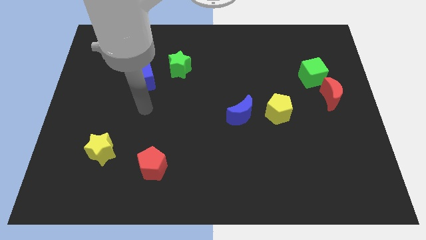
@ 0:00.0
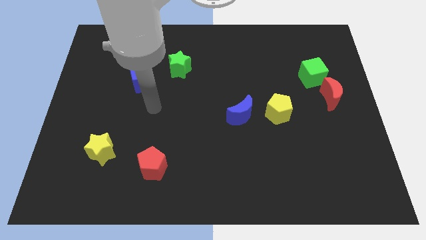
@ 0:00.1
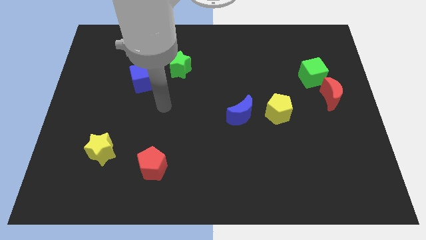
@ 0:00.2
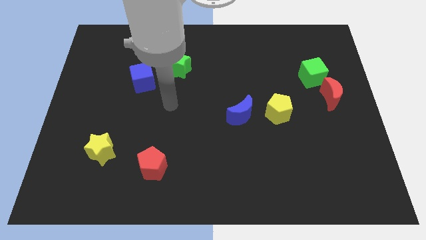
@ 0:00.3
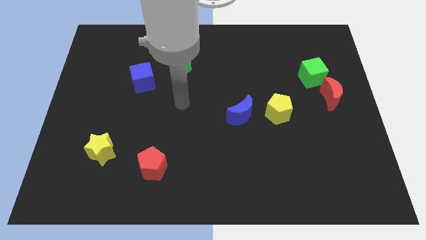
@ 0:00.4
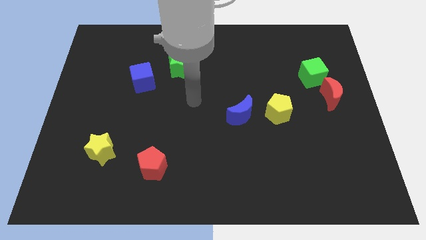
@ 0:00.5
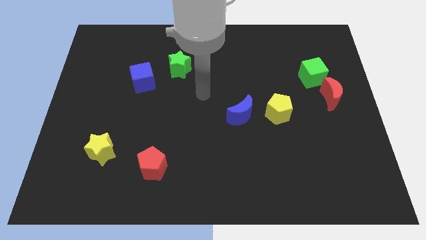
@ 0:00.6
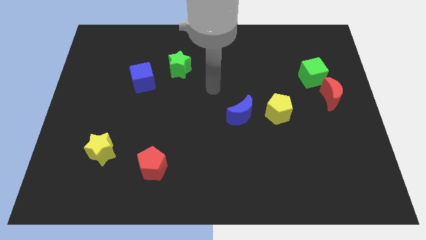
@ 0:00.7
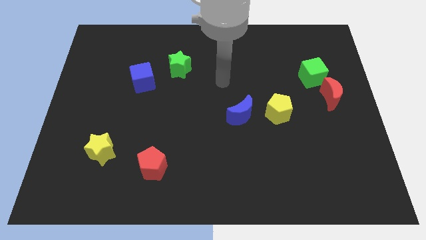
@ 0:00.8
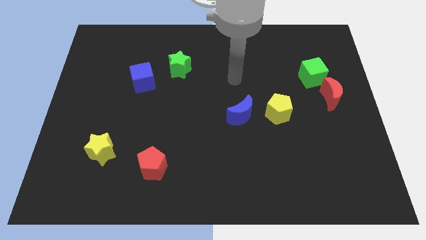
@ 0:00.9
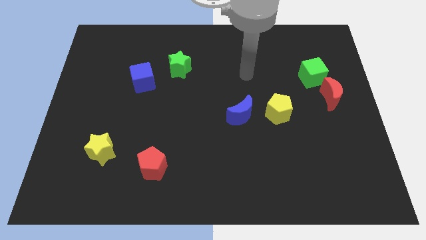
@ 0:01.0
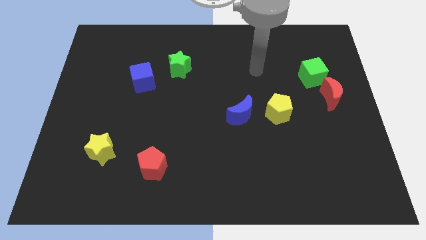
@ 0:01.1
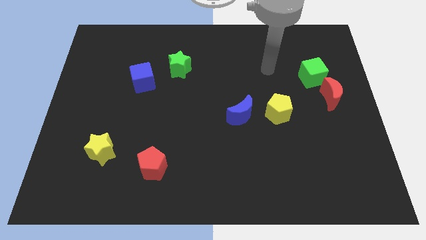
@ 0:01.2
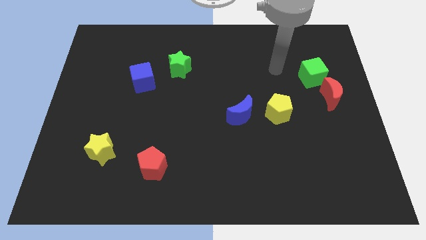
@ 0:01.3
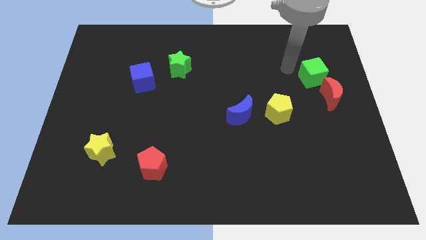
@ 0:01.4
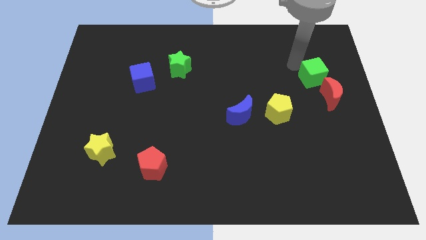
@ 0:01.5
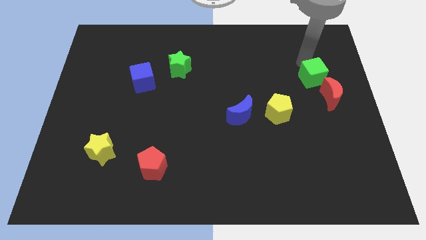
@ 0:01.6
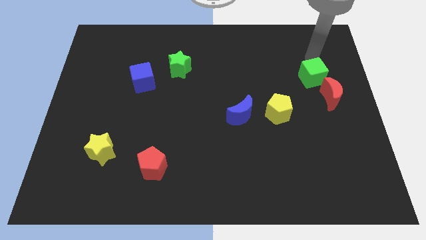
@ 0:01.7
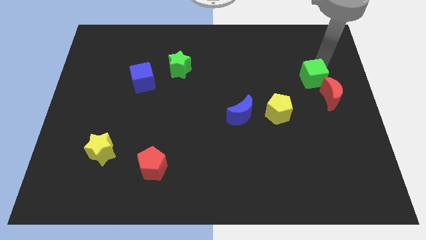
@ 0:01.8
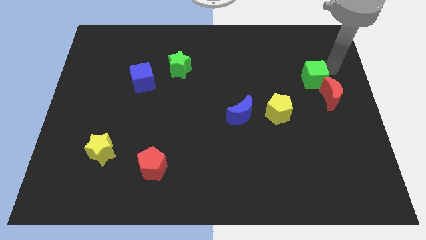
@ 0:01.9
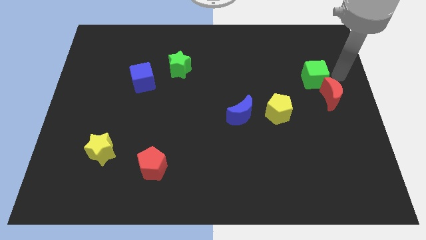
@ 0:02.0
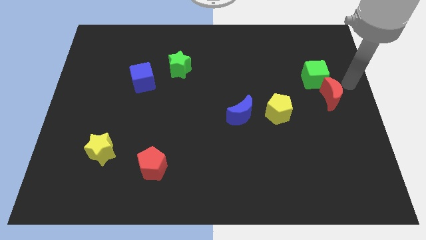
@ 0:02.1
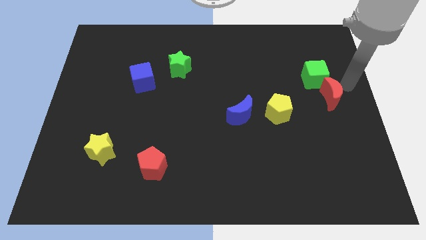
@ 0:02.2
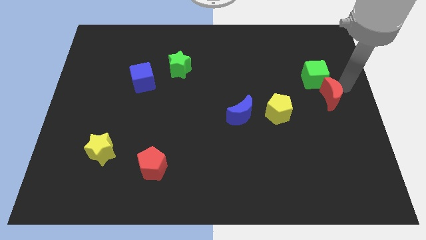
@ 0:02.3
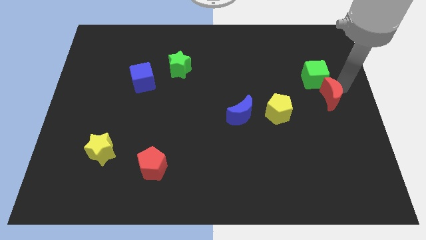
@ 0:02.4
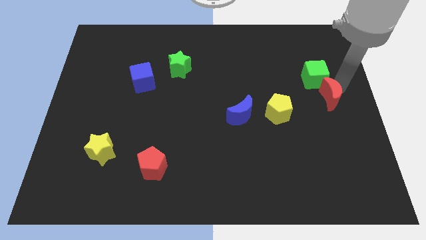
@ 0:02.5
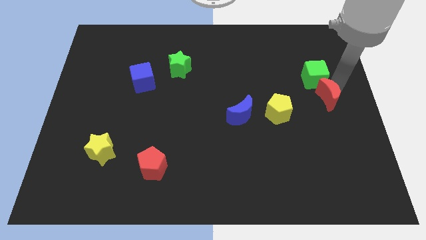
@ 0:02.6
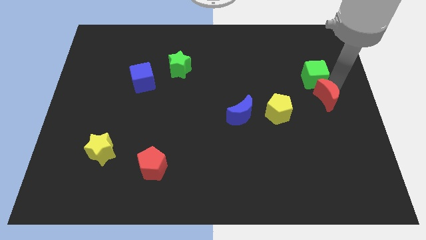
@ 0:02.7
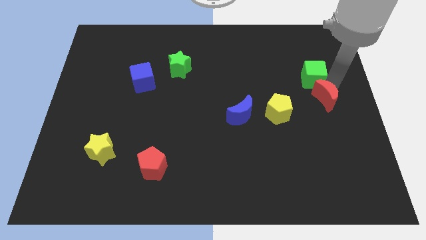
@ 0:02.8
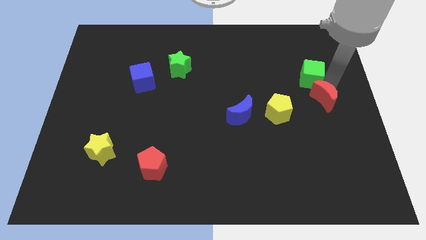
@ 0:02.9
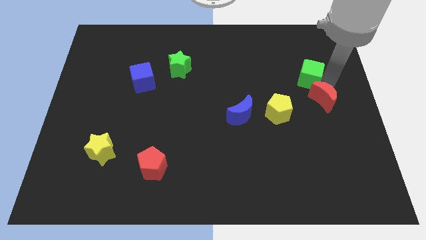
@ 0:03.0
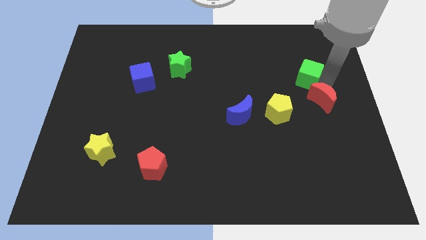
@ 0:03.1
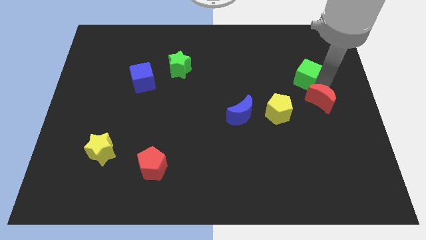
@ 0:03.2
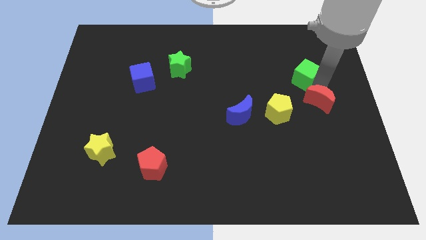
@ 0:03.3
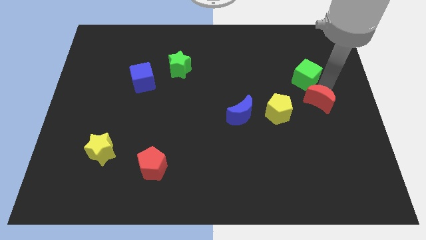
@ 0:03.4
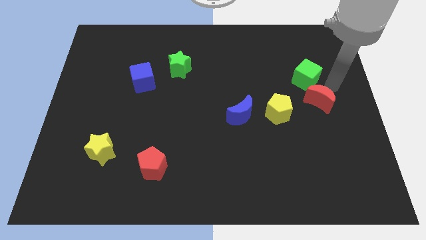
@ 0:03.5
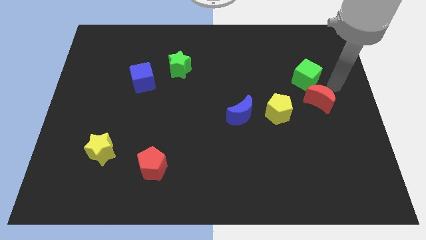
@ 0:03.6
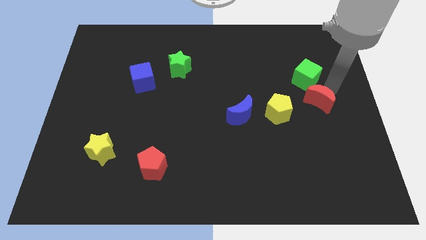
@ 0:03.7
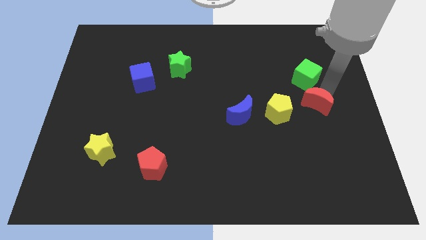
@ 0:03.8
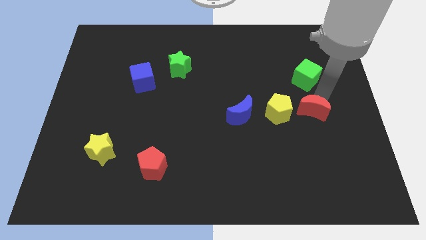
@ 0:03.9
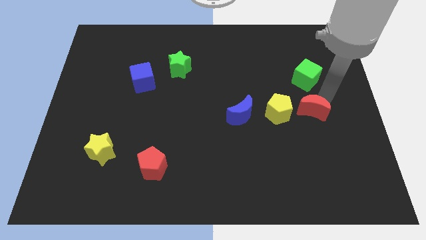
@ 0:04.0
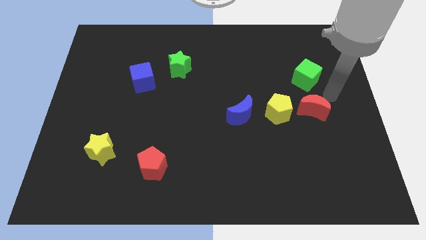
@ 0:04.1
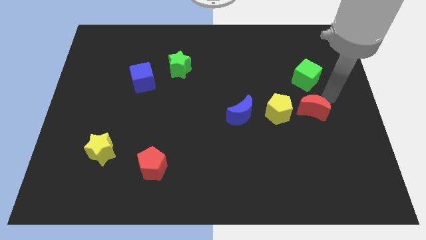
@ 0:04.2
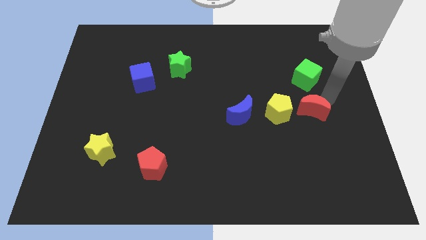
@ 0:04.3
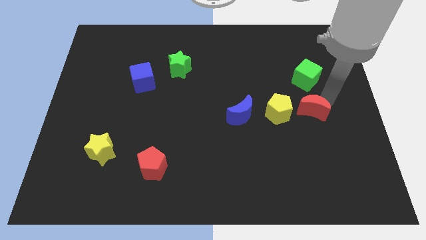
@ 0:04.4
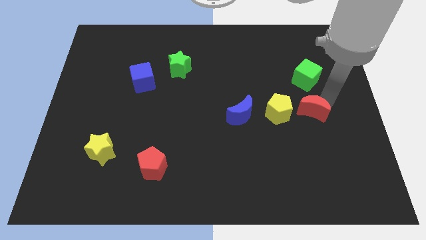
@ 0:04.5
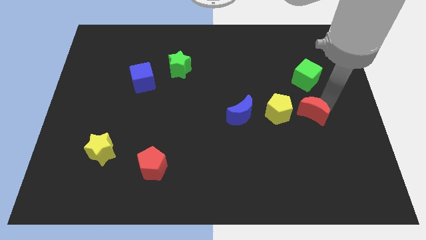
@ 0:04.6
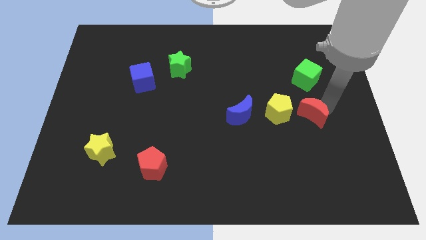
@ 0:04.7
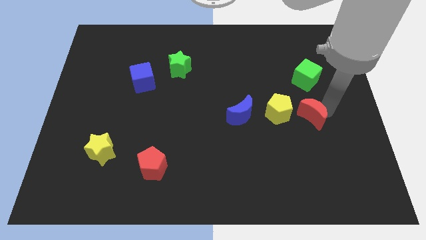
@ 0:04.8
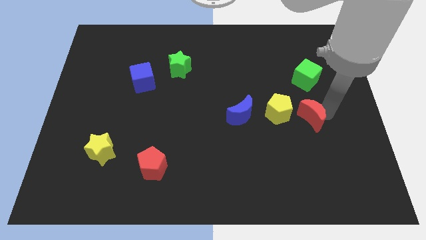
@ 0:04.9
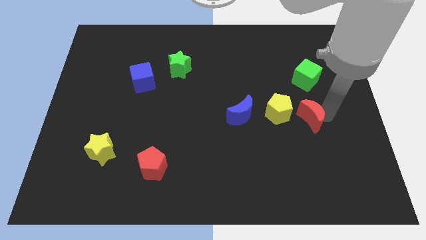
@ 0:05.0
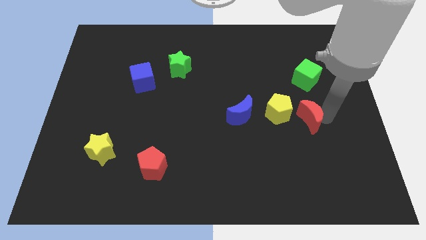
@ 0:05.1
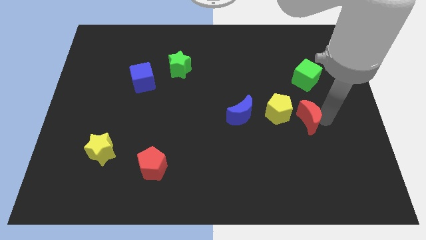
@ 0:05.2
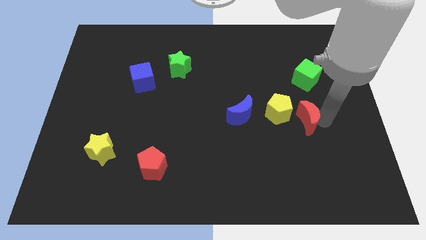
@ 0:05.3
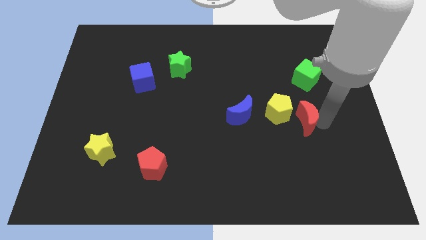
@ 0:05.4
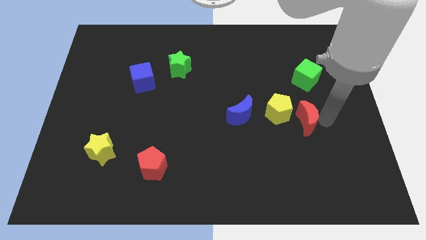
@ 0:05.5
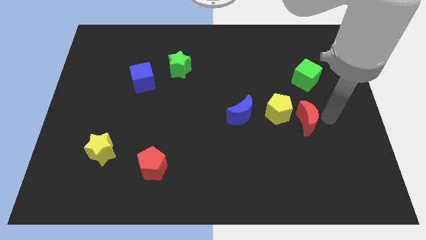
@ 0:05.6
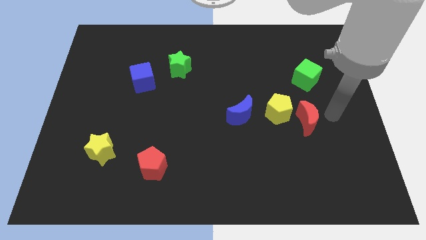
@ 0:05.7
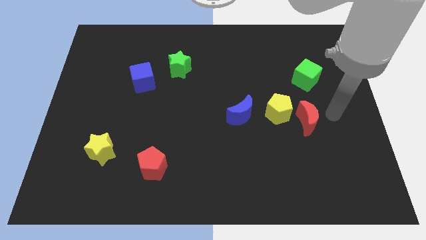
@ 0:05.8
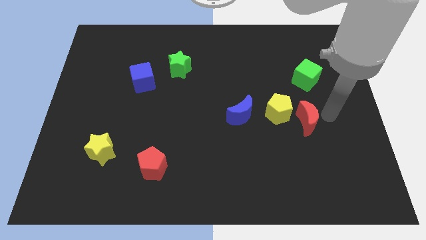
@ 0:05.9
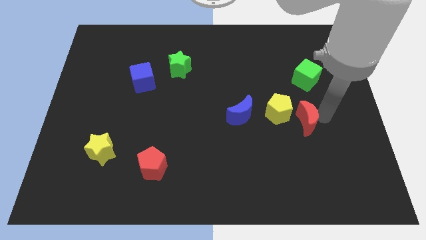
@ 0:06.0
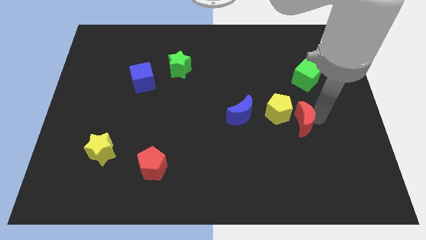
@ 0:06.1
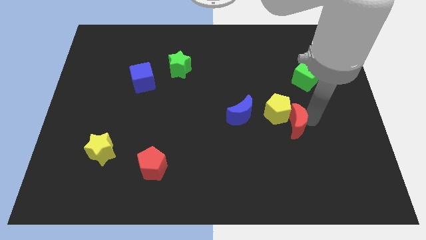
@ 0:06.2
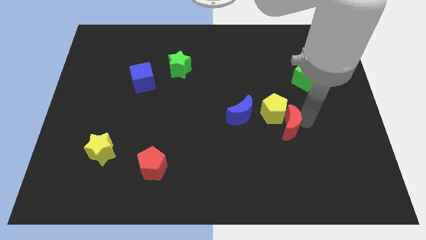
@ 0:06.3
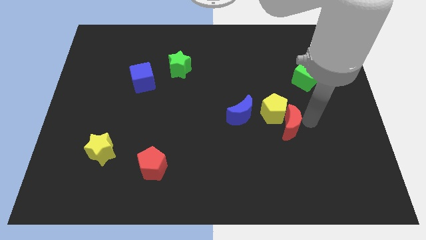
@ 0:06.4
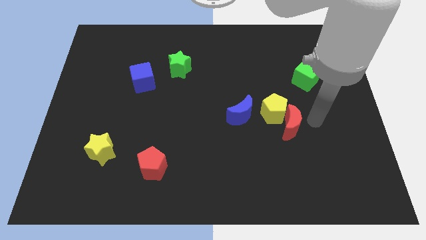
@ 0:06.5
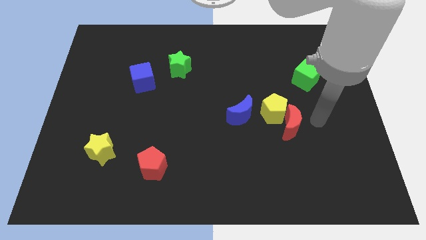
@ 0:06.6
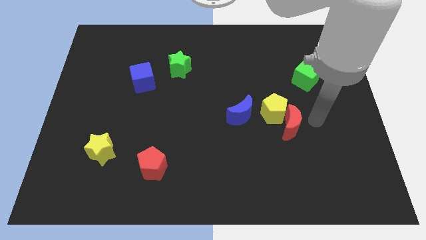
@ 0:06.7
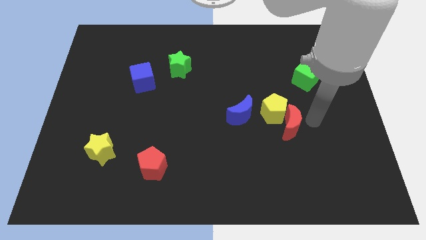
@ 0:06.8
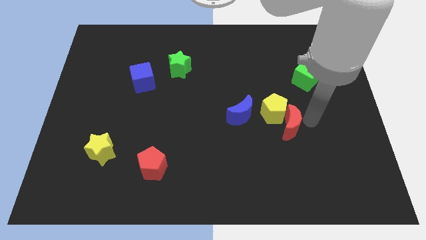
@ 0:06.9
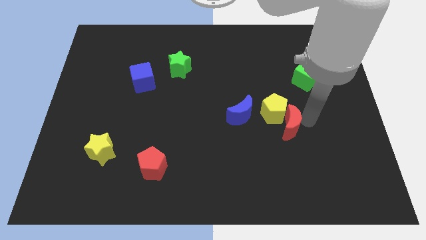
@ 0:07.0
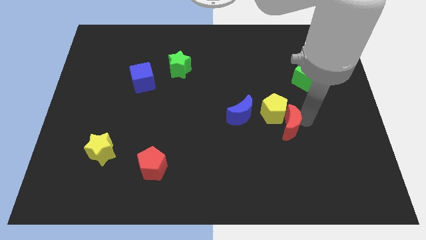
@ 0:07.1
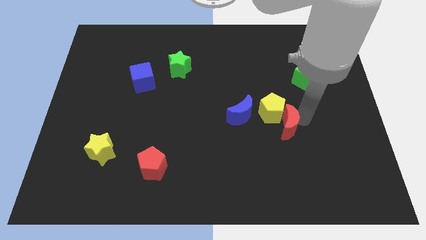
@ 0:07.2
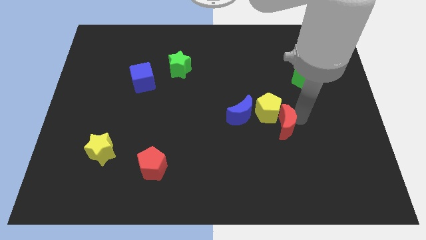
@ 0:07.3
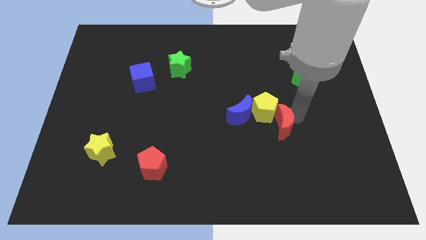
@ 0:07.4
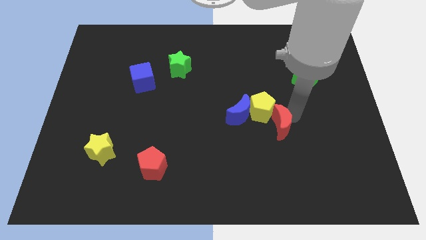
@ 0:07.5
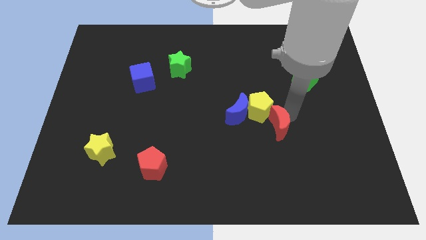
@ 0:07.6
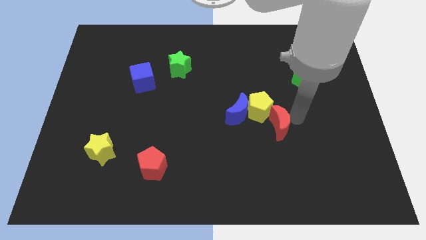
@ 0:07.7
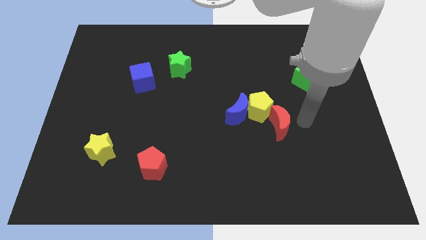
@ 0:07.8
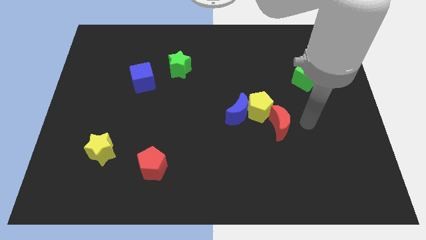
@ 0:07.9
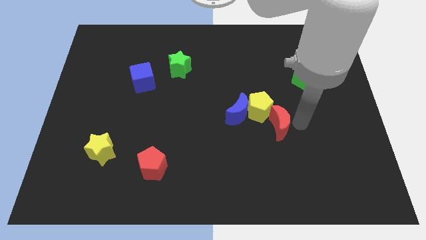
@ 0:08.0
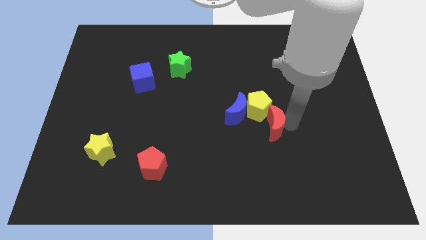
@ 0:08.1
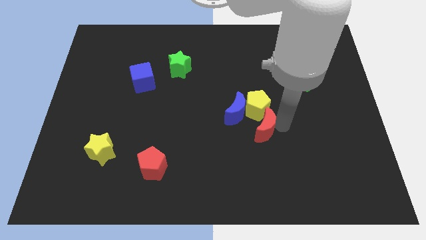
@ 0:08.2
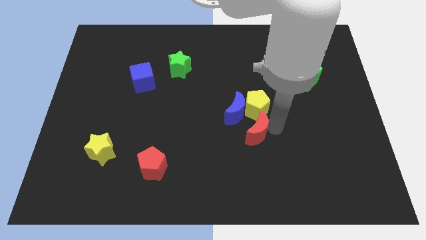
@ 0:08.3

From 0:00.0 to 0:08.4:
push the red moon to the bottom left of the yellow pentagon
